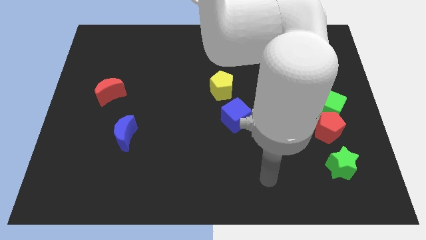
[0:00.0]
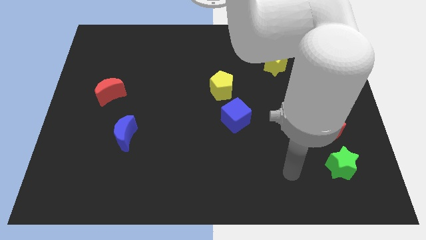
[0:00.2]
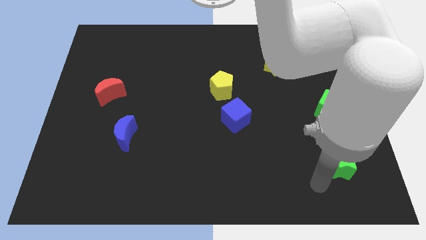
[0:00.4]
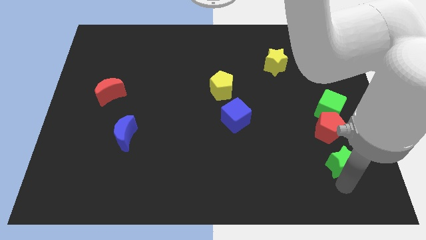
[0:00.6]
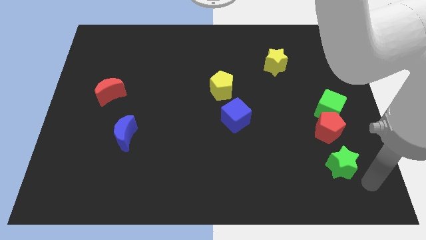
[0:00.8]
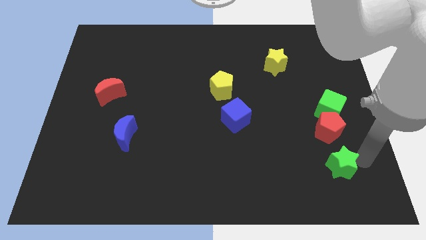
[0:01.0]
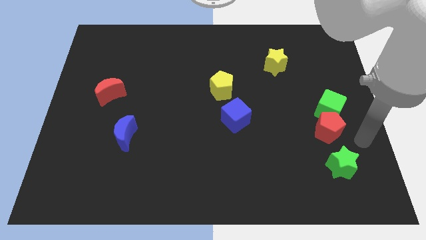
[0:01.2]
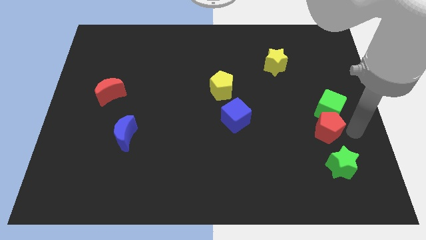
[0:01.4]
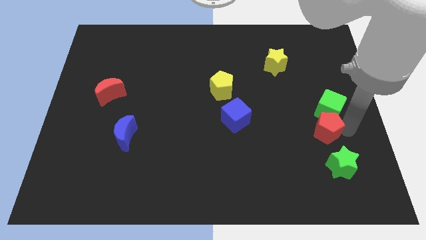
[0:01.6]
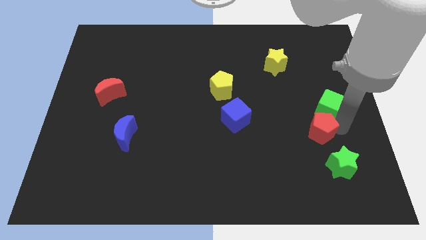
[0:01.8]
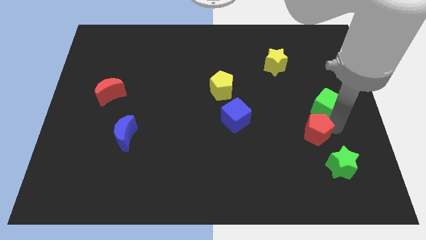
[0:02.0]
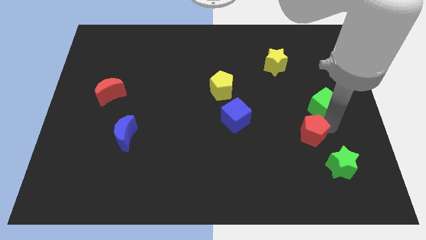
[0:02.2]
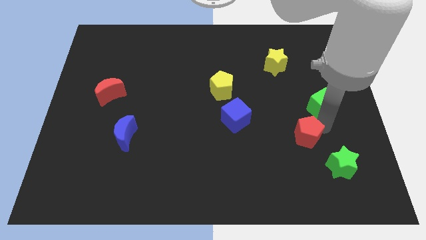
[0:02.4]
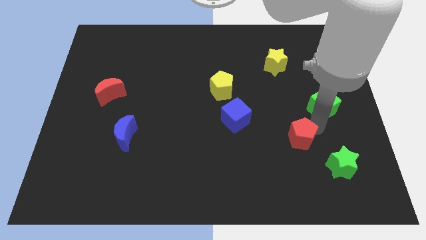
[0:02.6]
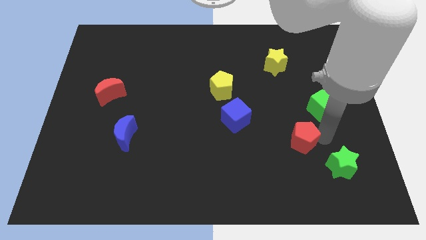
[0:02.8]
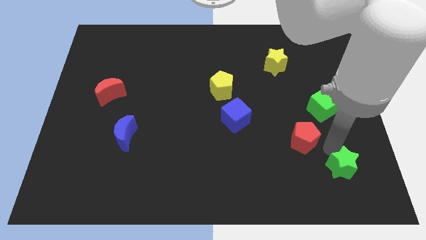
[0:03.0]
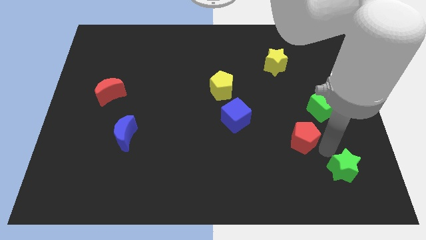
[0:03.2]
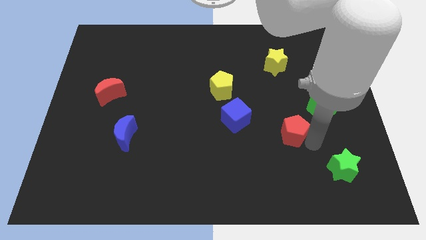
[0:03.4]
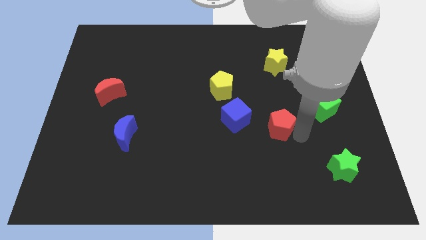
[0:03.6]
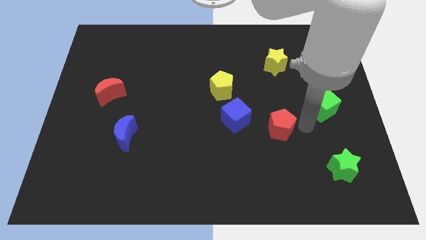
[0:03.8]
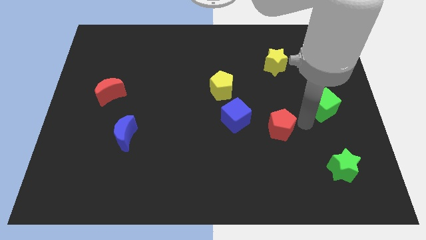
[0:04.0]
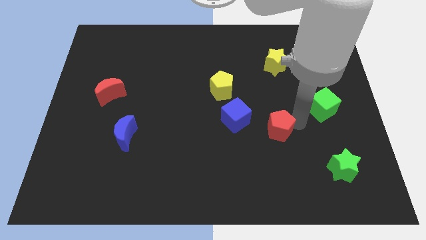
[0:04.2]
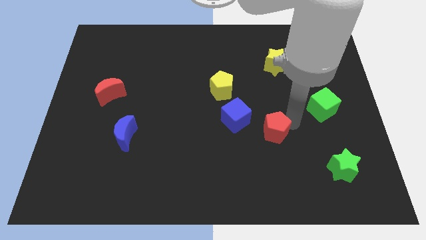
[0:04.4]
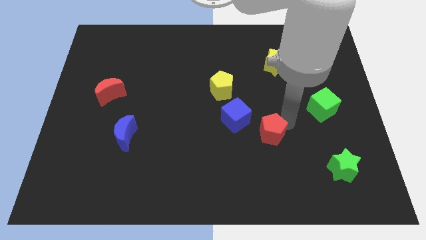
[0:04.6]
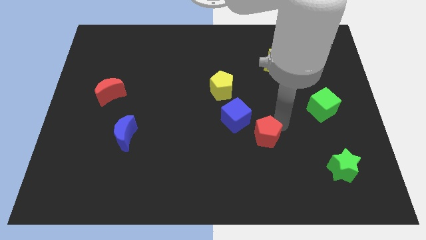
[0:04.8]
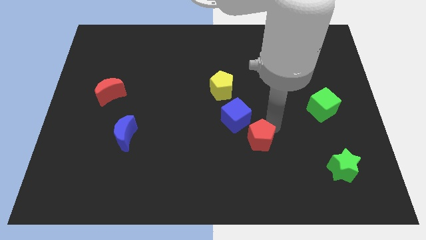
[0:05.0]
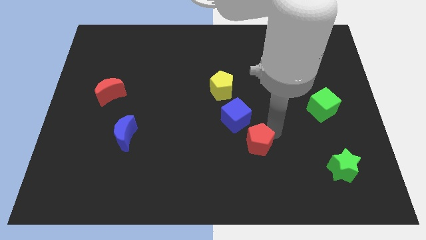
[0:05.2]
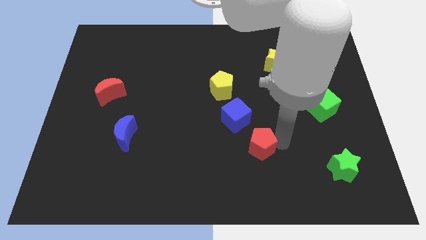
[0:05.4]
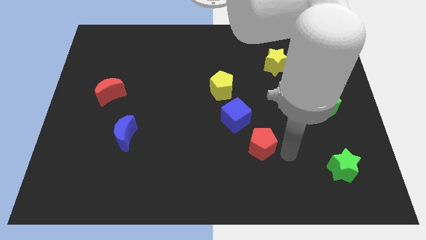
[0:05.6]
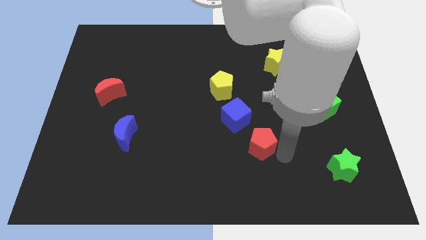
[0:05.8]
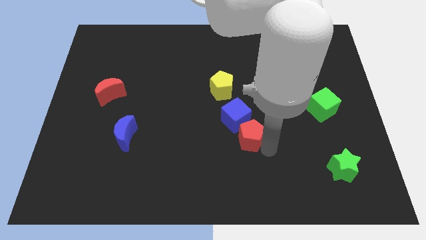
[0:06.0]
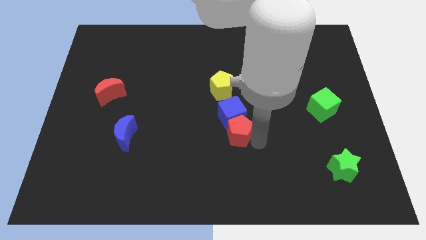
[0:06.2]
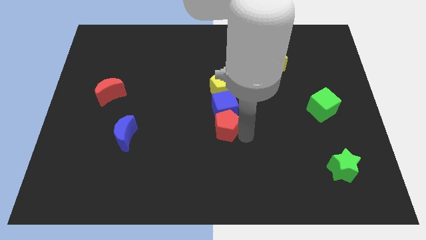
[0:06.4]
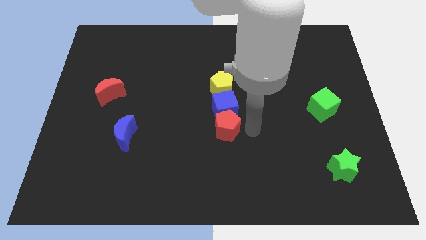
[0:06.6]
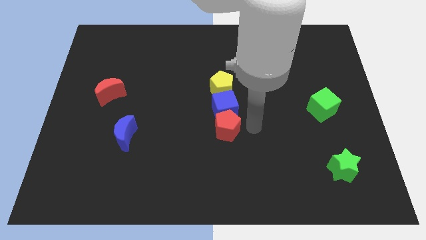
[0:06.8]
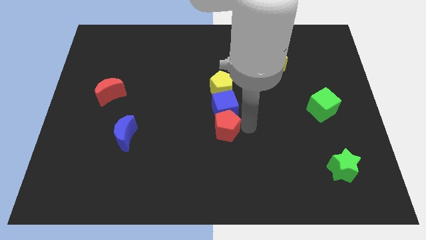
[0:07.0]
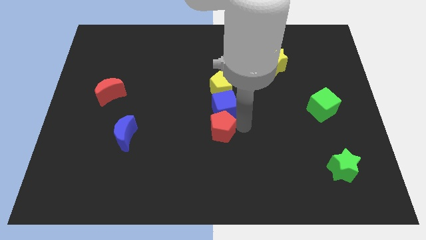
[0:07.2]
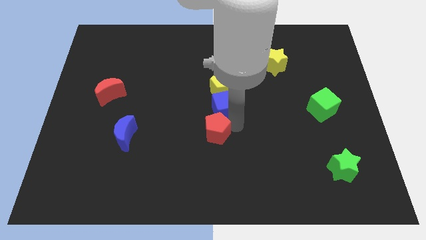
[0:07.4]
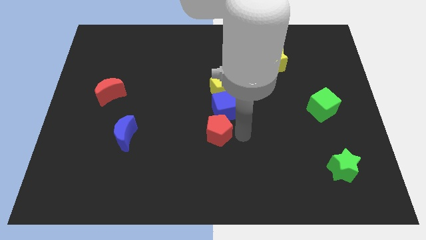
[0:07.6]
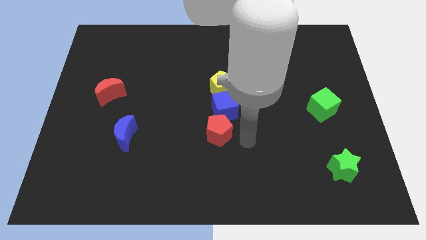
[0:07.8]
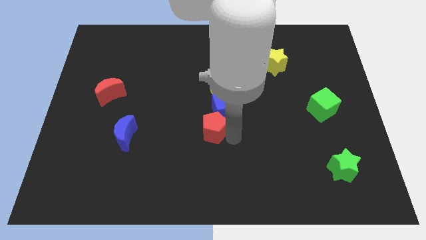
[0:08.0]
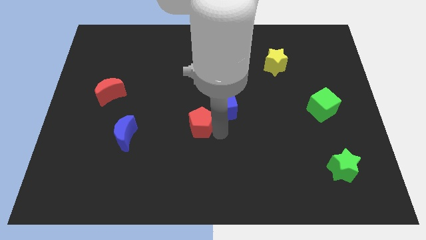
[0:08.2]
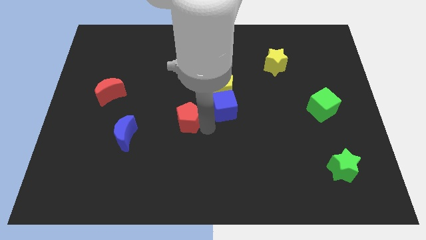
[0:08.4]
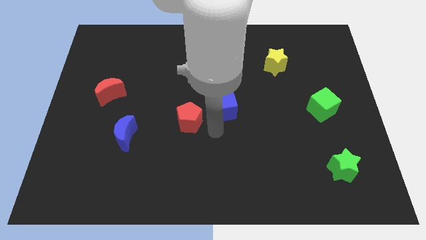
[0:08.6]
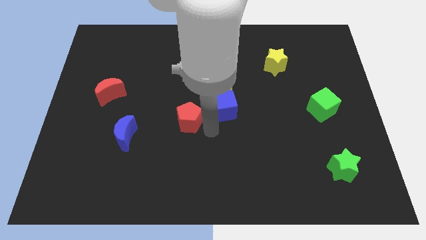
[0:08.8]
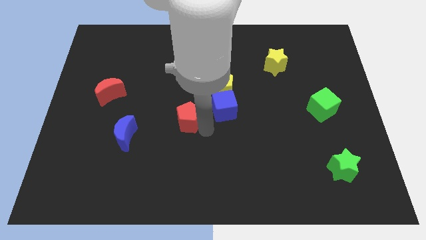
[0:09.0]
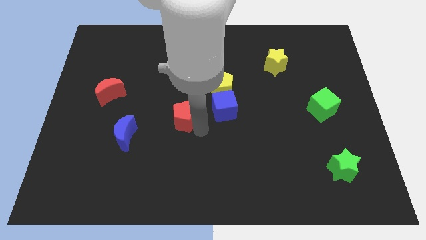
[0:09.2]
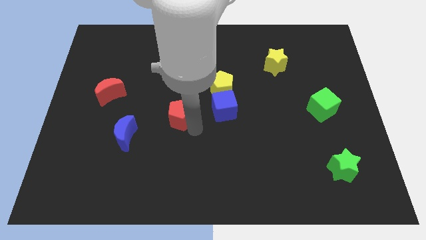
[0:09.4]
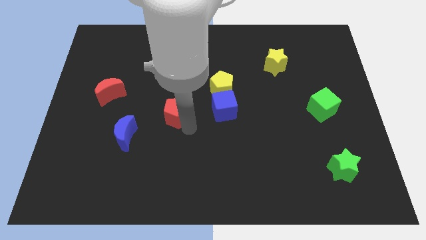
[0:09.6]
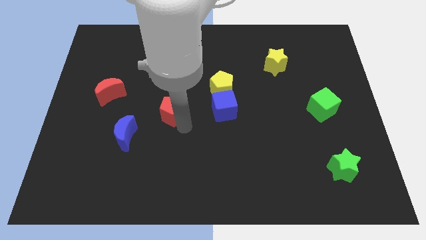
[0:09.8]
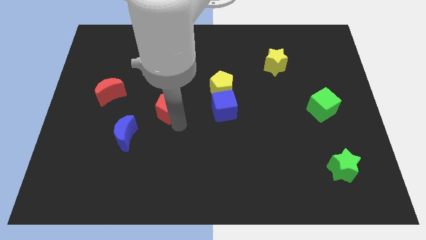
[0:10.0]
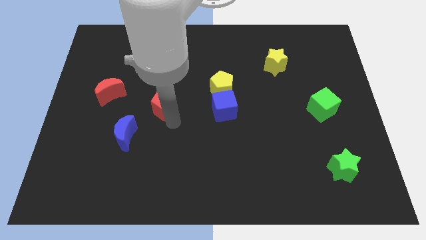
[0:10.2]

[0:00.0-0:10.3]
slide the red pentagon just right of the red moon

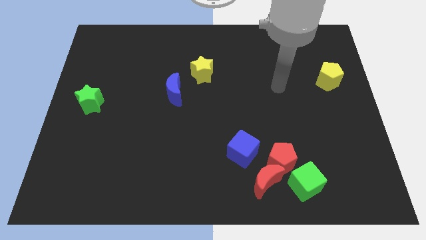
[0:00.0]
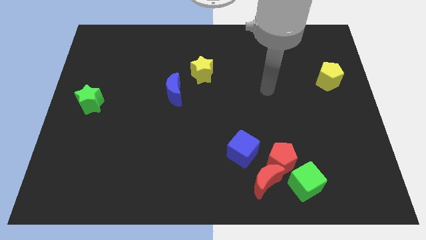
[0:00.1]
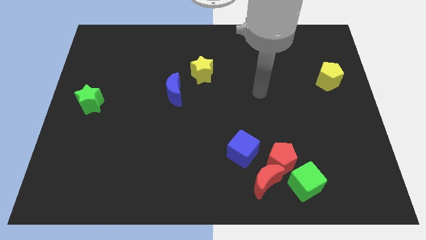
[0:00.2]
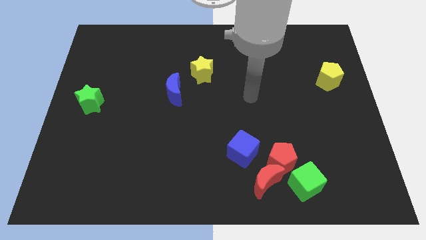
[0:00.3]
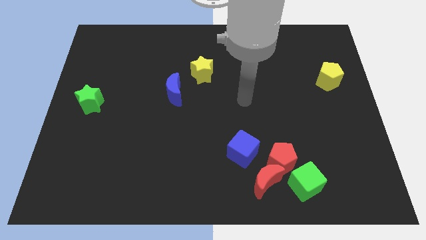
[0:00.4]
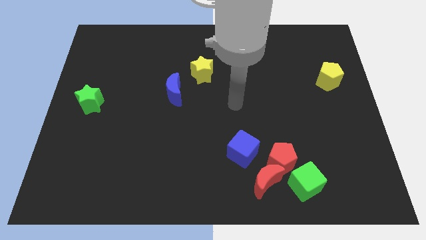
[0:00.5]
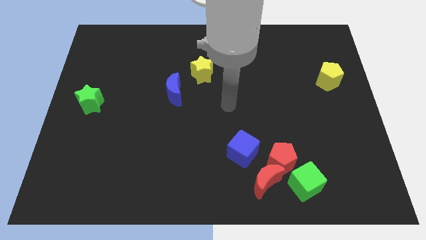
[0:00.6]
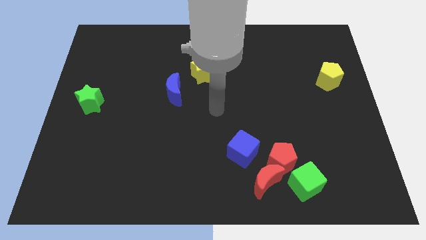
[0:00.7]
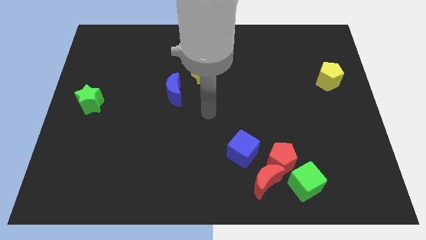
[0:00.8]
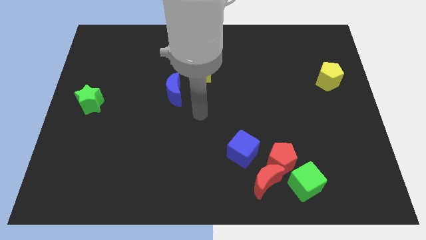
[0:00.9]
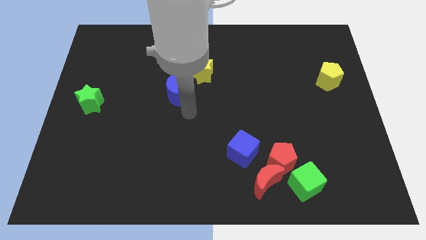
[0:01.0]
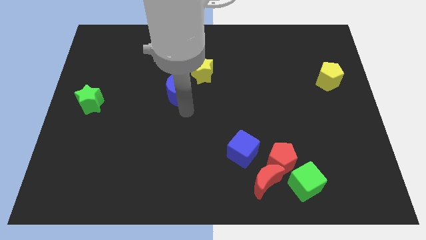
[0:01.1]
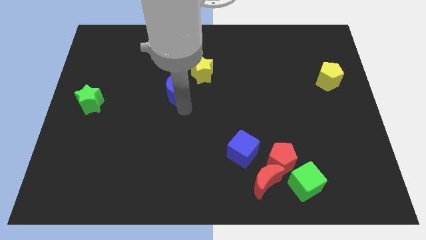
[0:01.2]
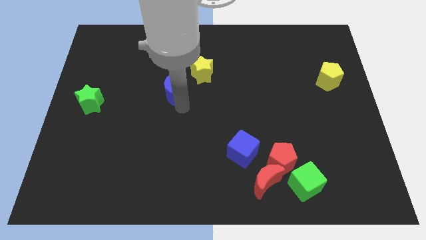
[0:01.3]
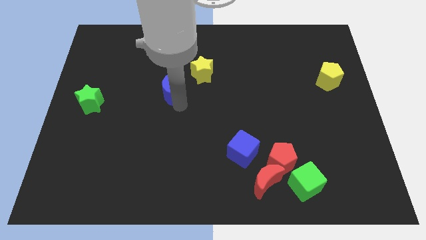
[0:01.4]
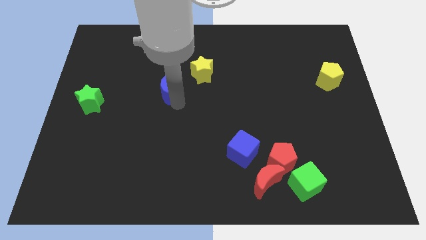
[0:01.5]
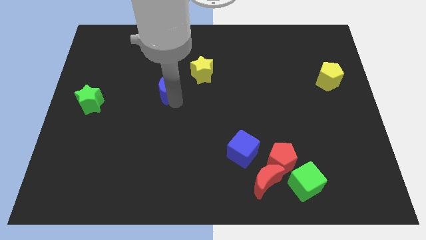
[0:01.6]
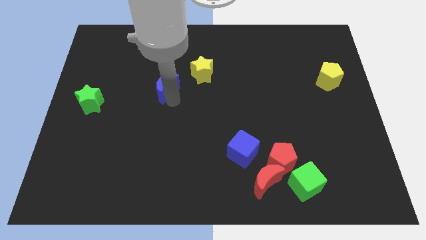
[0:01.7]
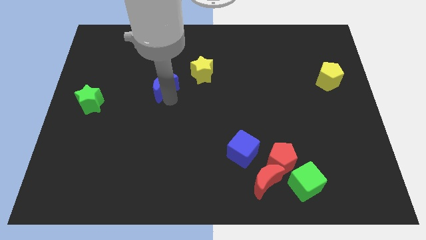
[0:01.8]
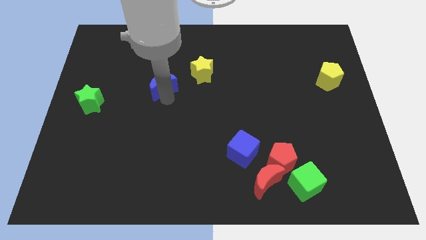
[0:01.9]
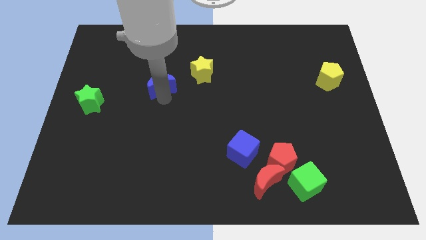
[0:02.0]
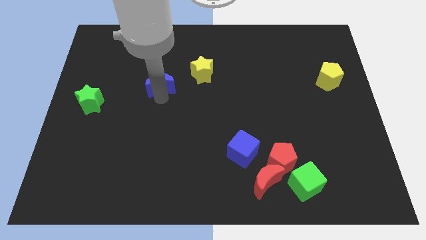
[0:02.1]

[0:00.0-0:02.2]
push the blue moon to the left of the yellow star
